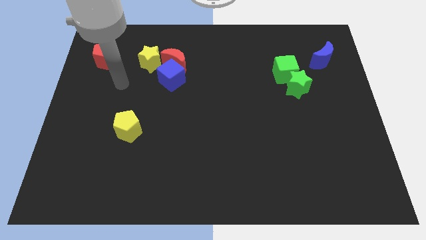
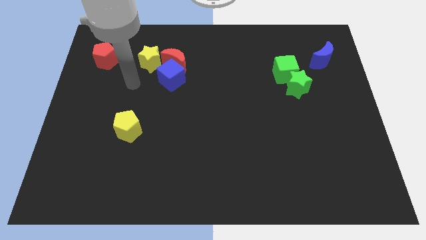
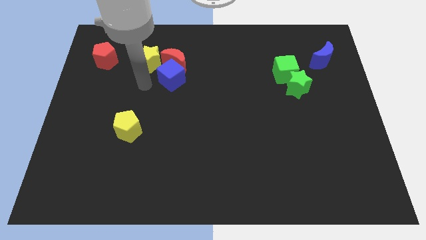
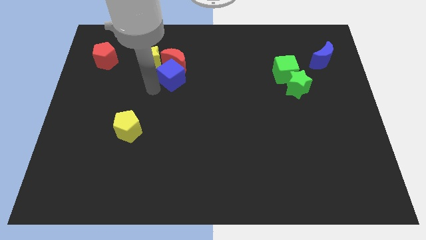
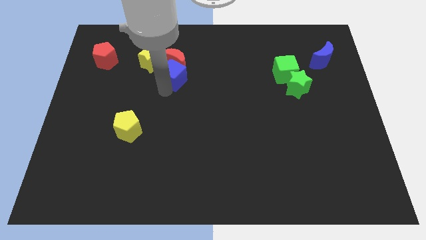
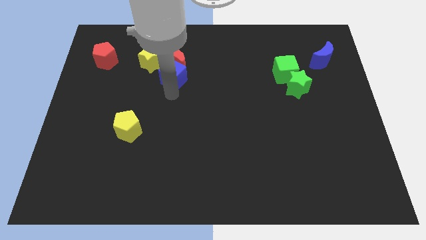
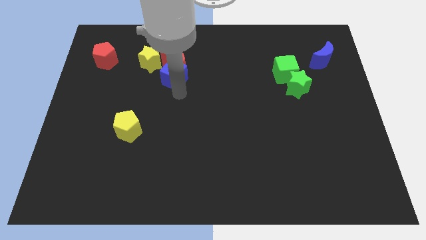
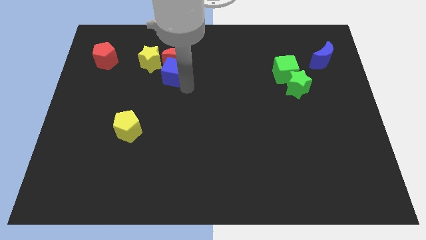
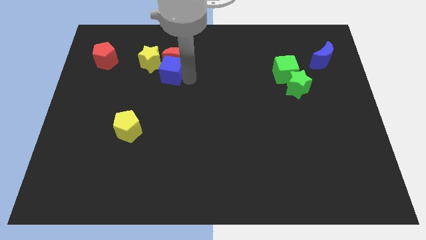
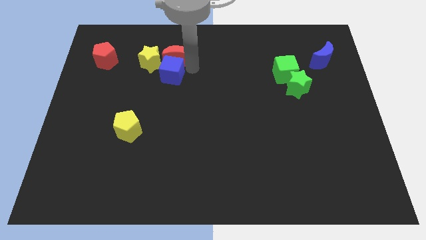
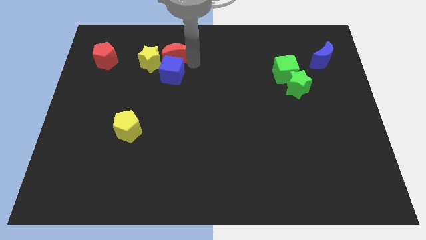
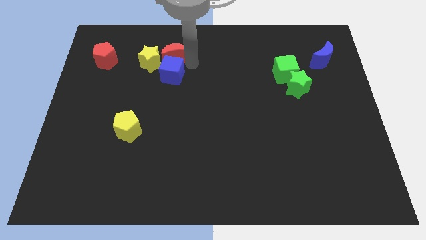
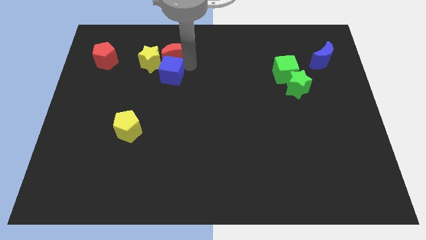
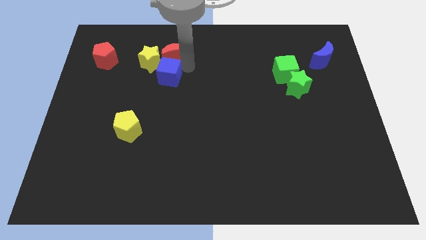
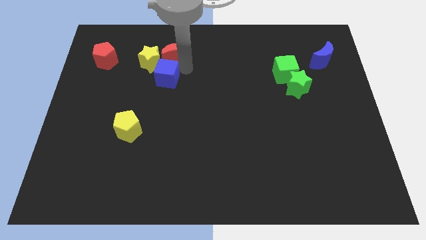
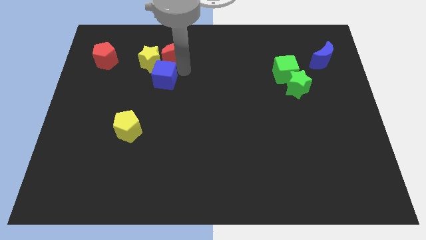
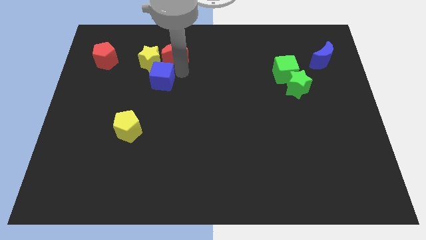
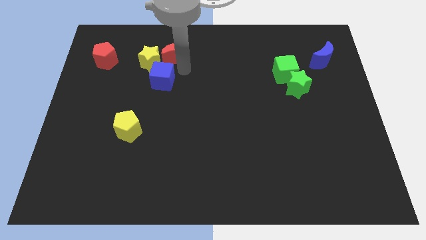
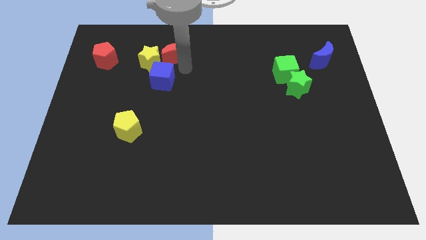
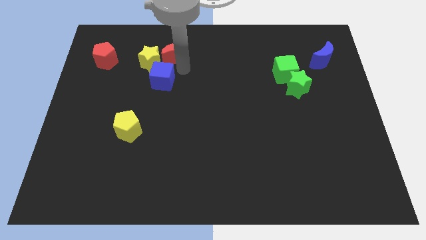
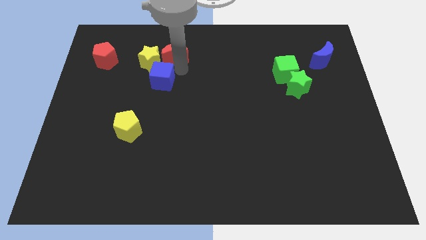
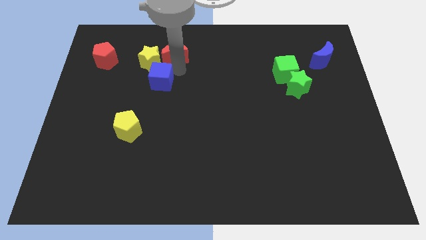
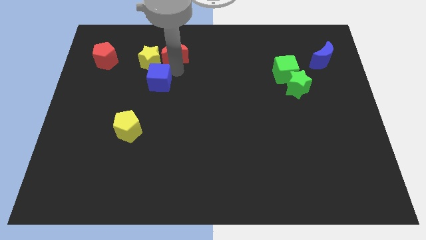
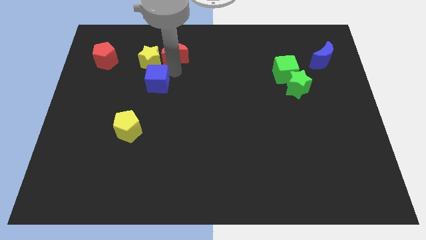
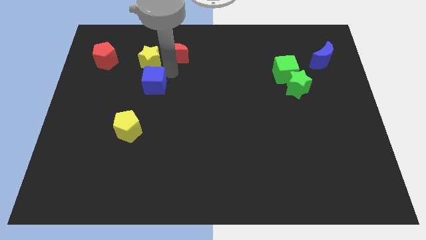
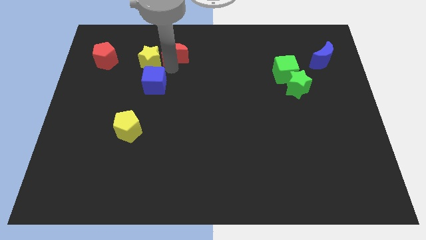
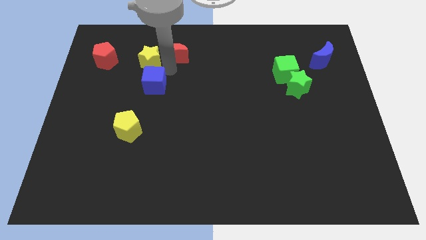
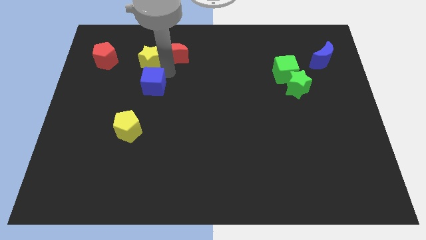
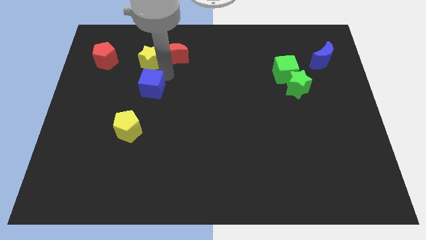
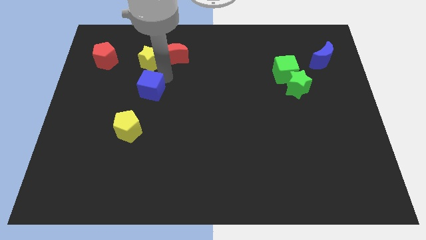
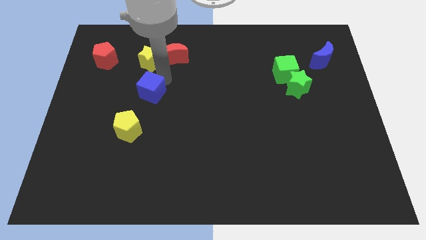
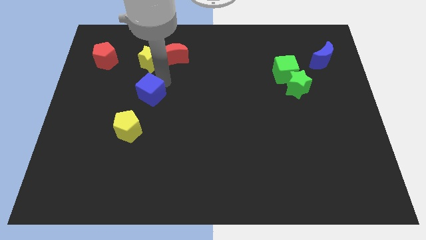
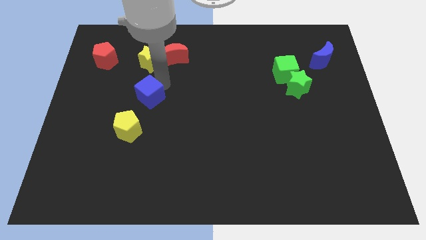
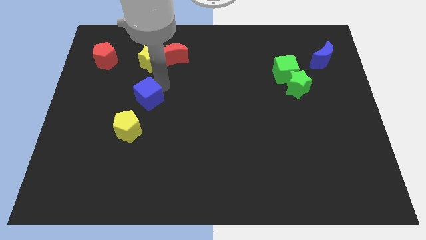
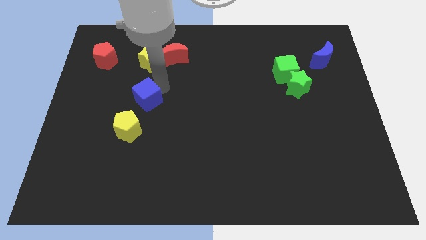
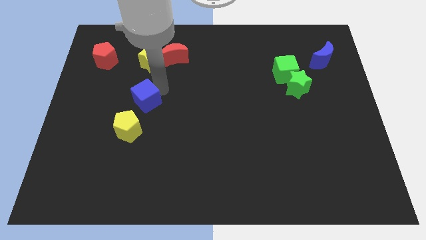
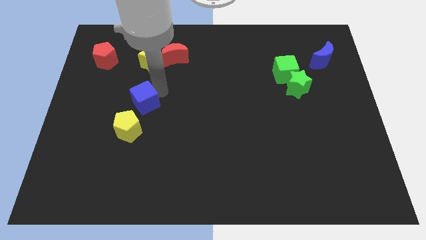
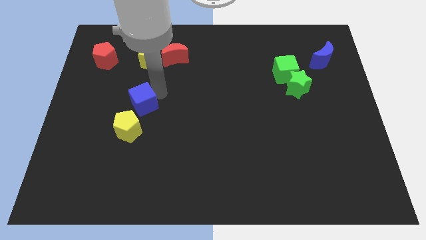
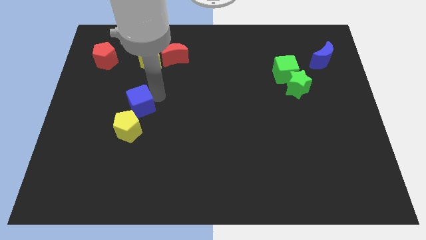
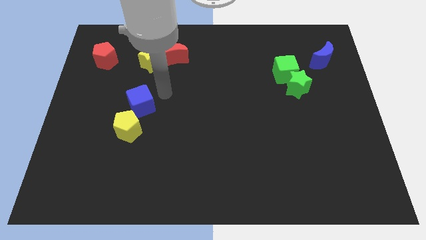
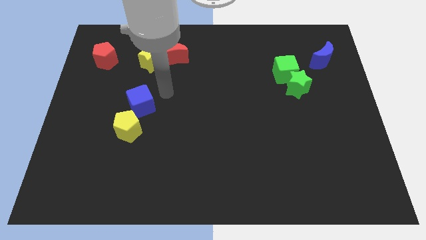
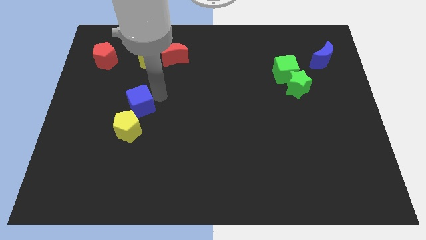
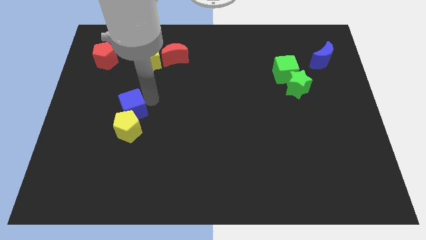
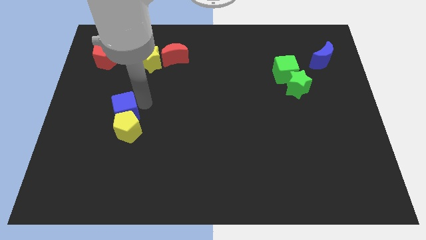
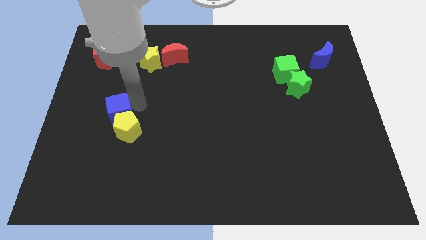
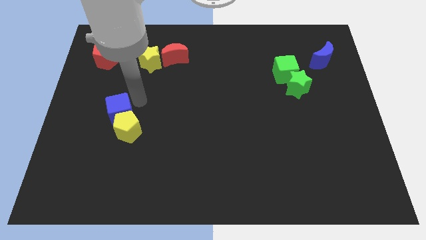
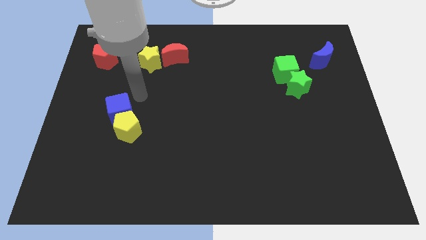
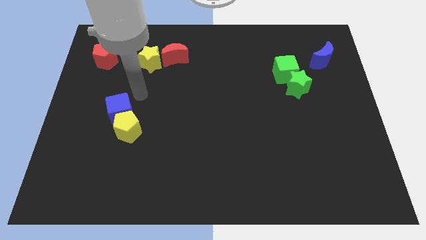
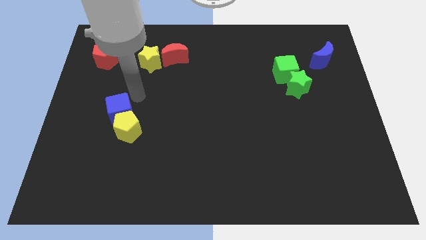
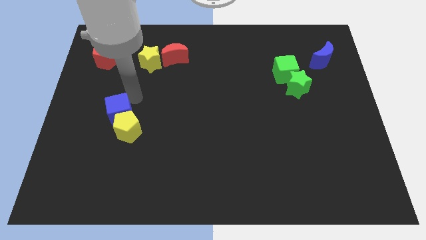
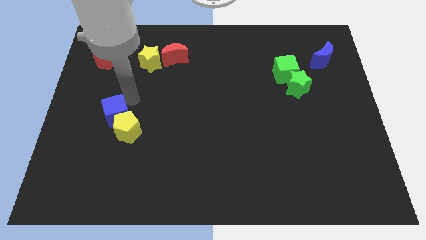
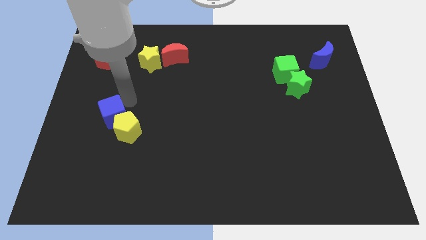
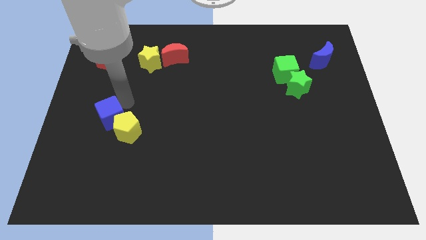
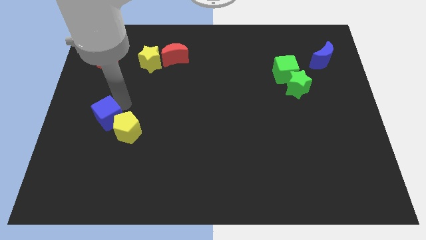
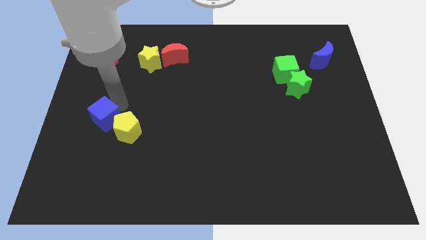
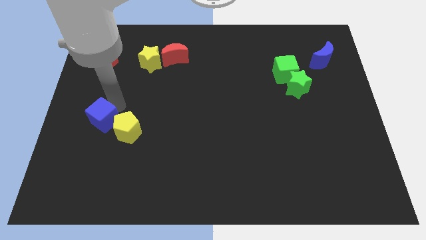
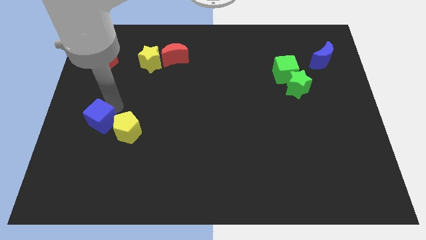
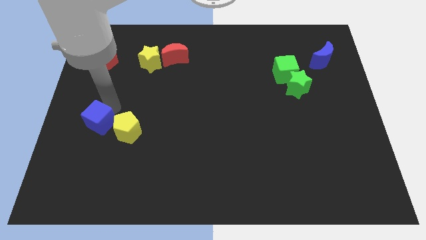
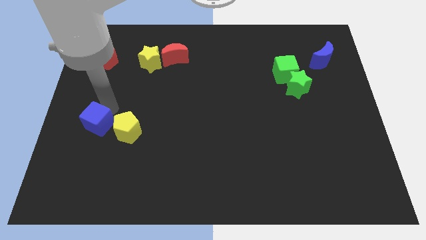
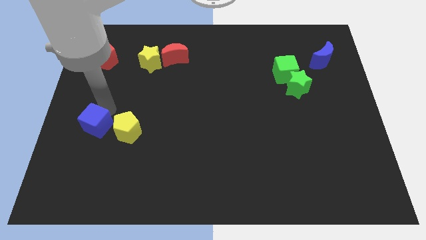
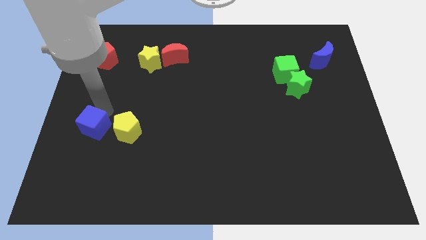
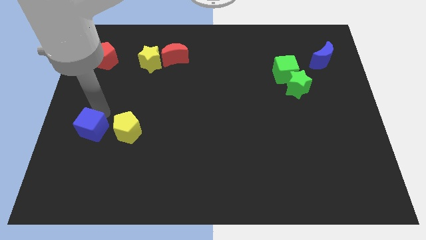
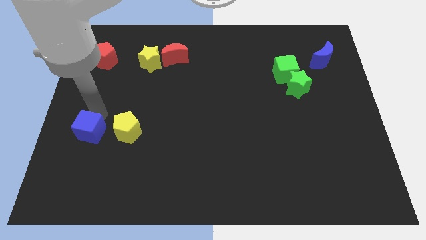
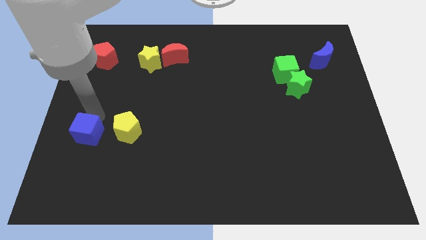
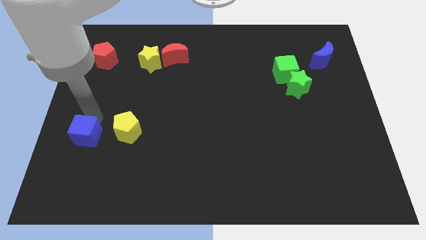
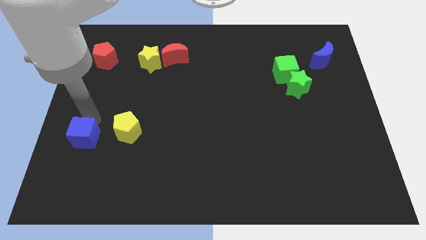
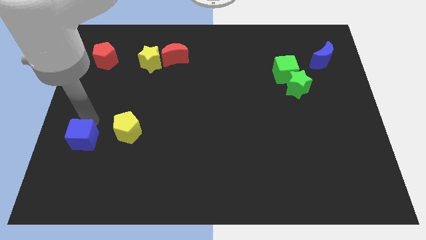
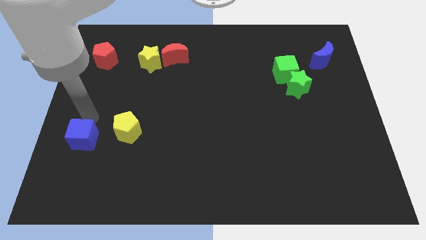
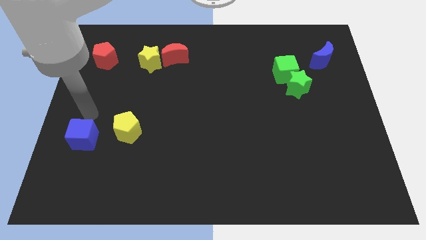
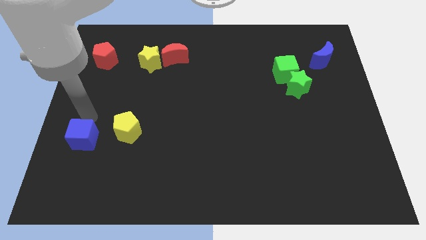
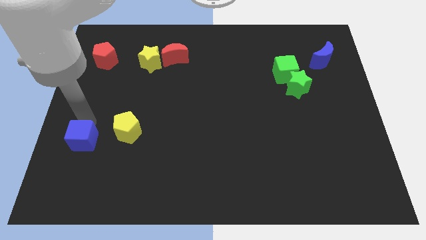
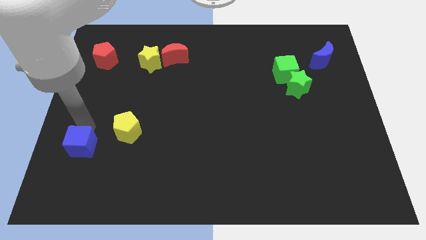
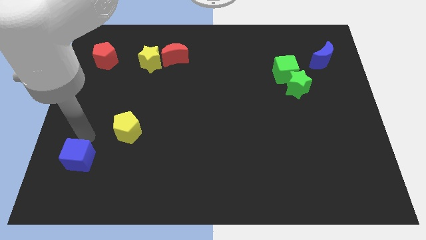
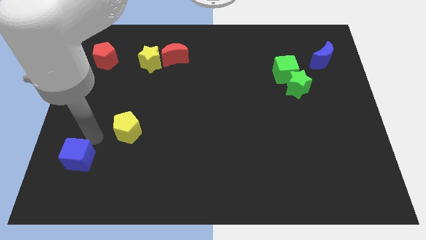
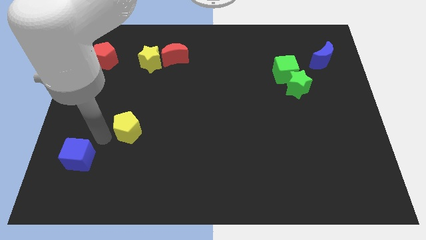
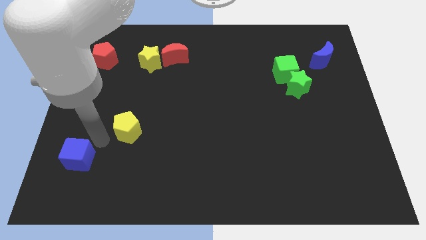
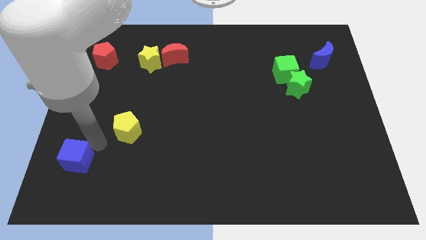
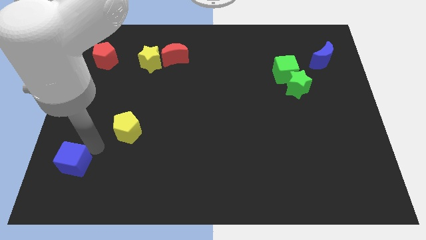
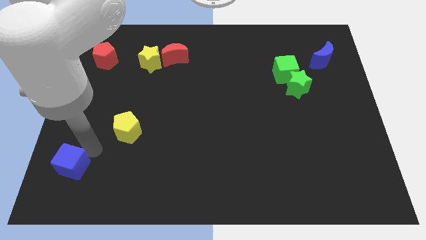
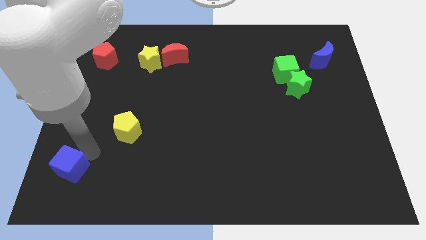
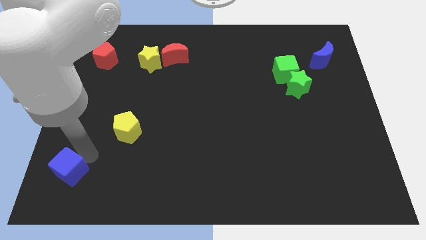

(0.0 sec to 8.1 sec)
put the blue cube to the bottom left of the board
